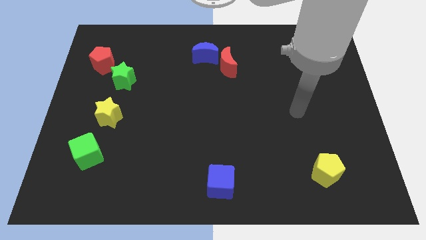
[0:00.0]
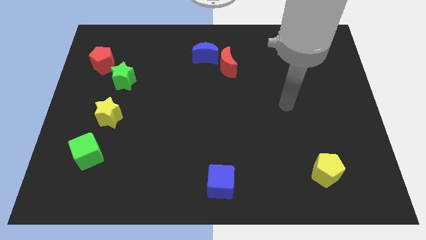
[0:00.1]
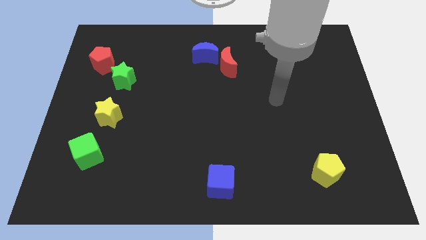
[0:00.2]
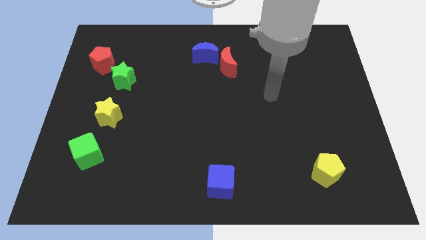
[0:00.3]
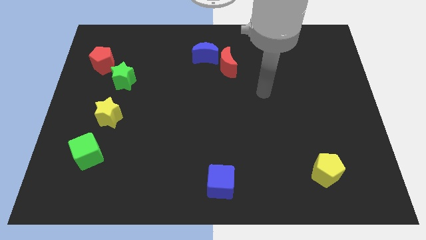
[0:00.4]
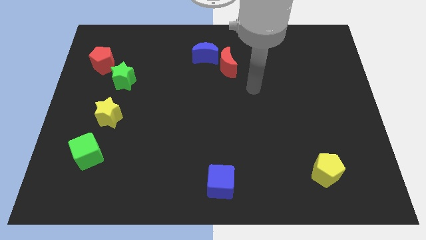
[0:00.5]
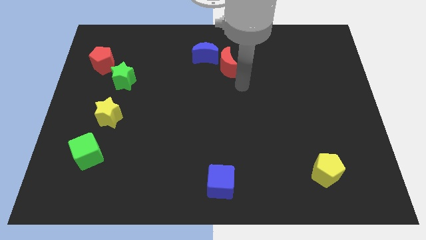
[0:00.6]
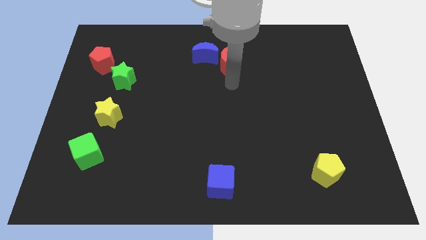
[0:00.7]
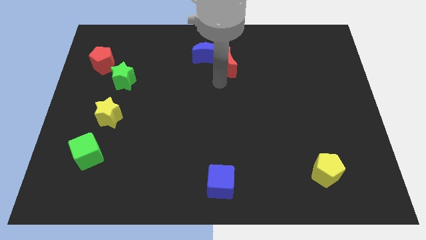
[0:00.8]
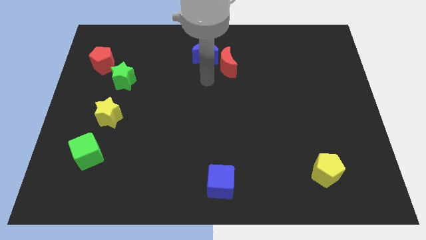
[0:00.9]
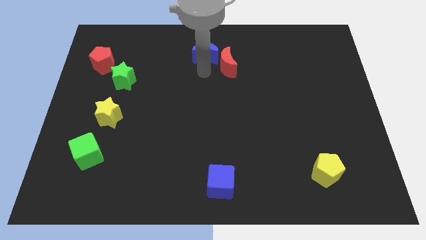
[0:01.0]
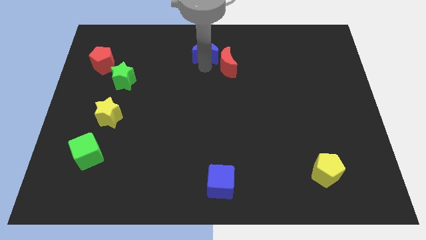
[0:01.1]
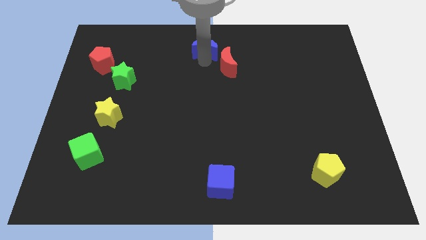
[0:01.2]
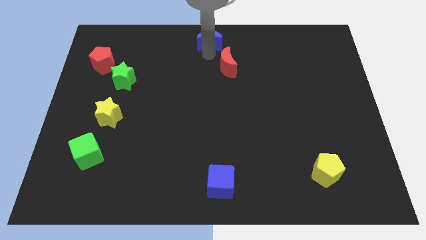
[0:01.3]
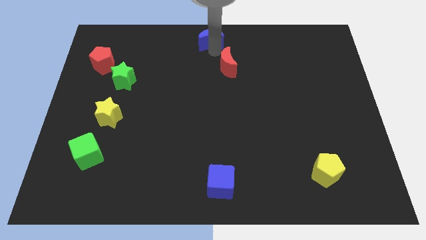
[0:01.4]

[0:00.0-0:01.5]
pull the red moon apart from the blue moon

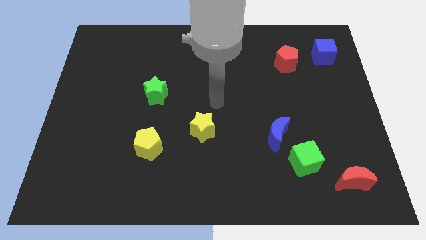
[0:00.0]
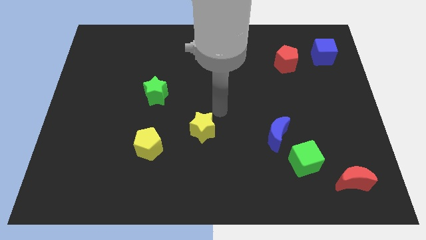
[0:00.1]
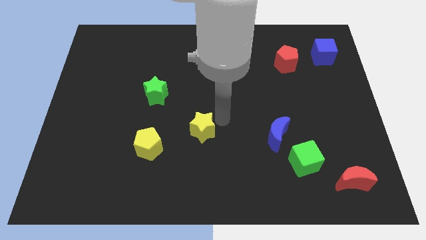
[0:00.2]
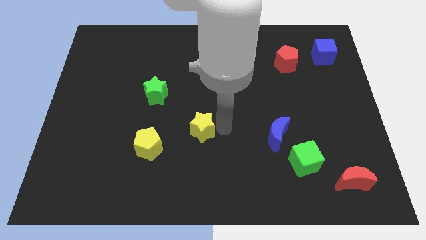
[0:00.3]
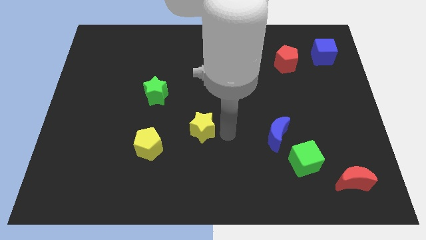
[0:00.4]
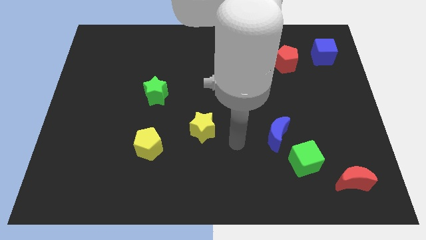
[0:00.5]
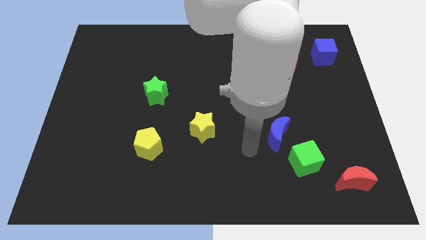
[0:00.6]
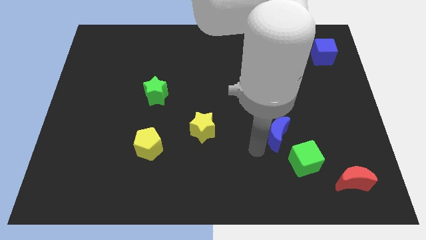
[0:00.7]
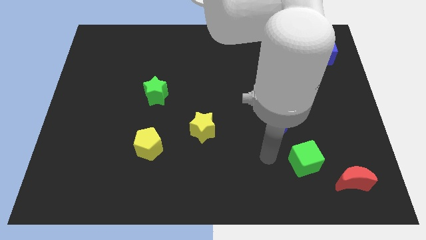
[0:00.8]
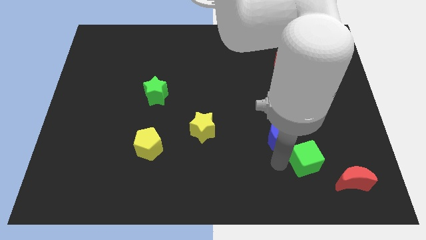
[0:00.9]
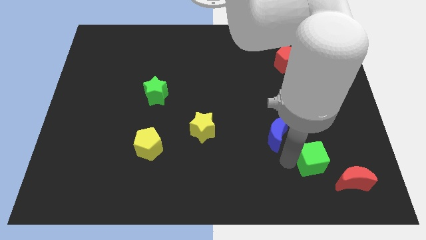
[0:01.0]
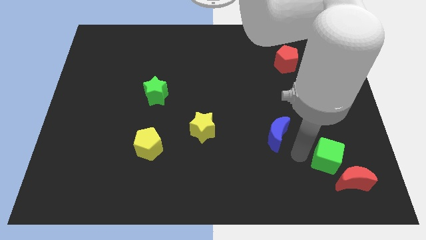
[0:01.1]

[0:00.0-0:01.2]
move the blue moon away from the green cube

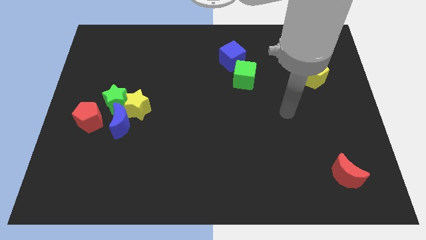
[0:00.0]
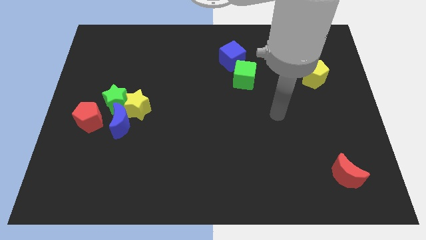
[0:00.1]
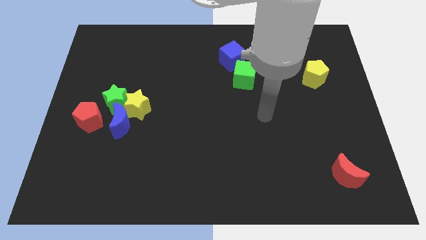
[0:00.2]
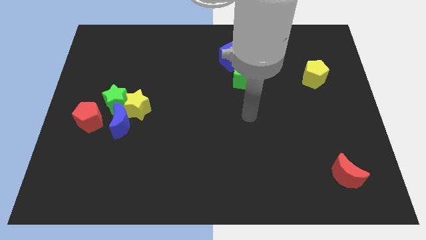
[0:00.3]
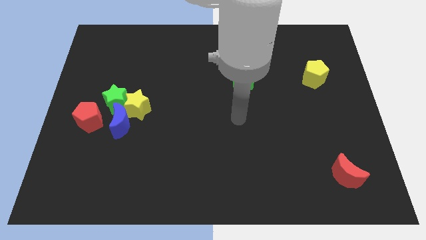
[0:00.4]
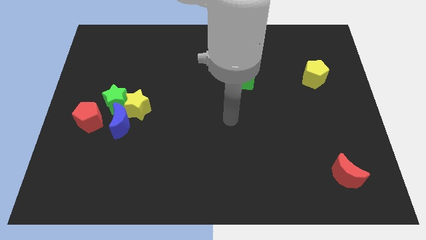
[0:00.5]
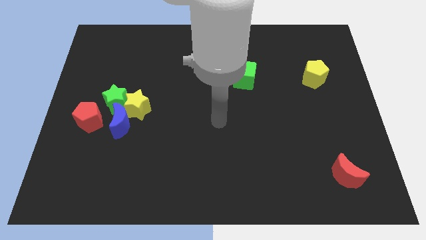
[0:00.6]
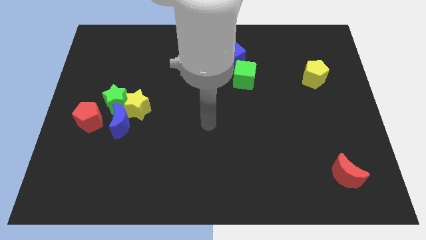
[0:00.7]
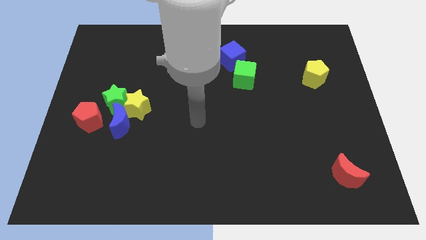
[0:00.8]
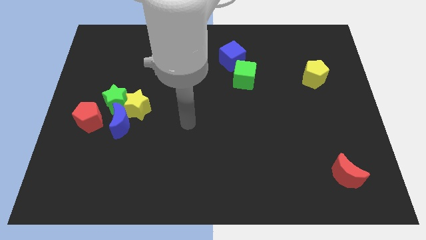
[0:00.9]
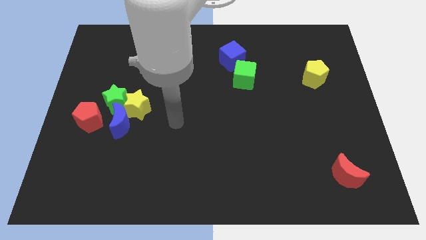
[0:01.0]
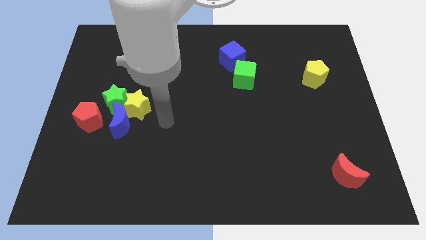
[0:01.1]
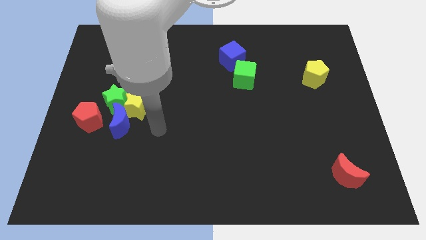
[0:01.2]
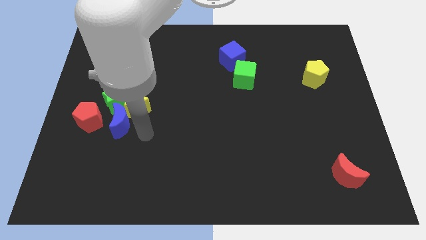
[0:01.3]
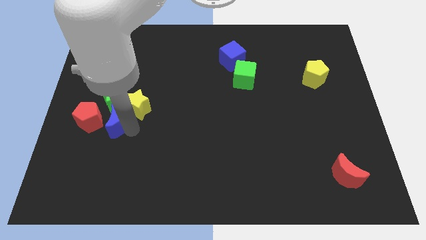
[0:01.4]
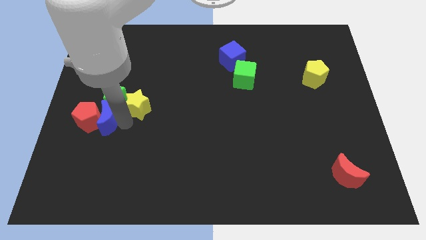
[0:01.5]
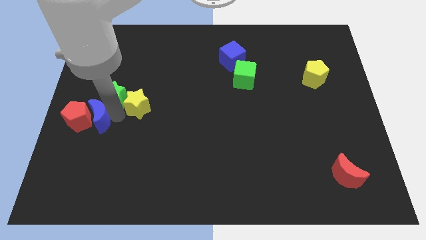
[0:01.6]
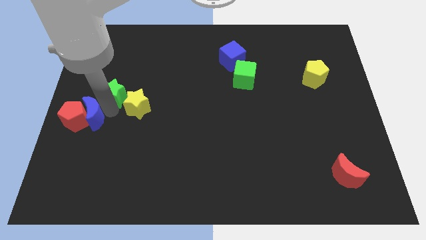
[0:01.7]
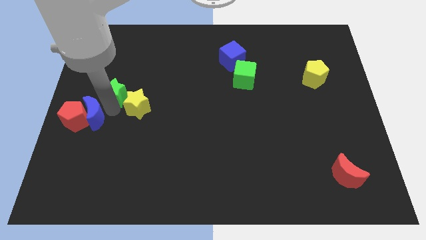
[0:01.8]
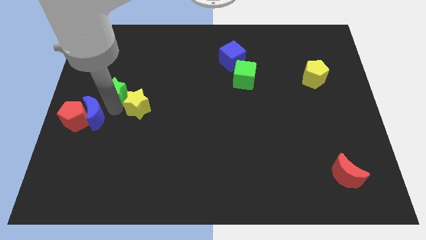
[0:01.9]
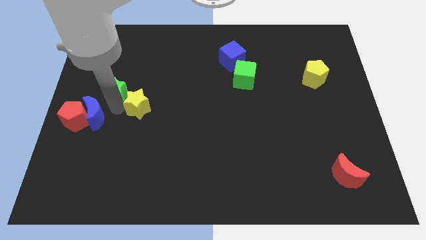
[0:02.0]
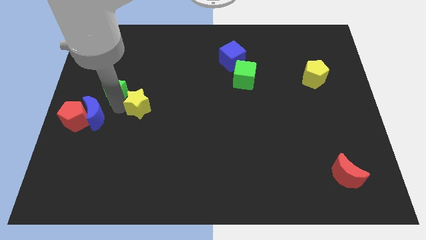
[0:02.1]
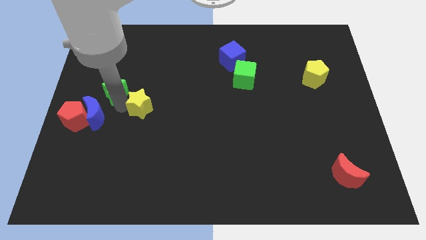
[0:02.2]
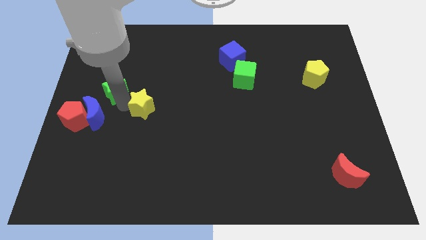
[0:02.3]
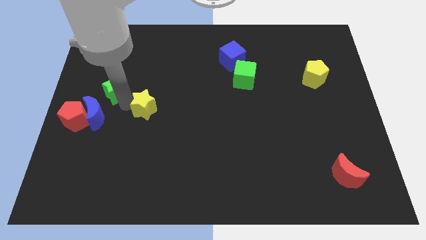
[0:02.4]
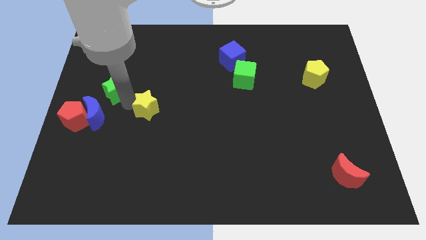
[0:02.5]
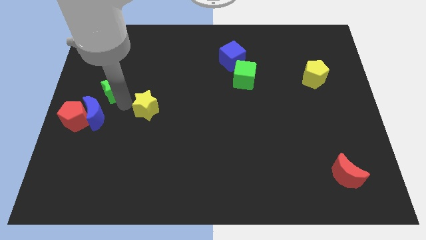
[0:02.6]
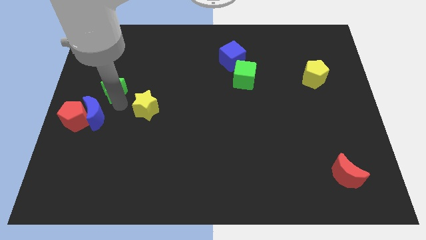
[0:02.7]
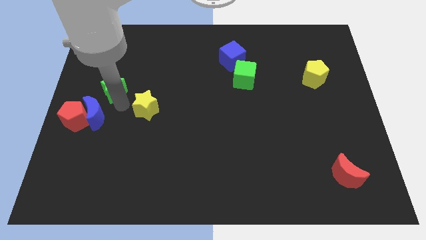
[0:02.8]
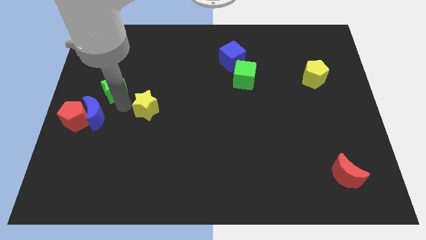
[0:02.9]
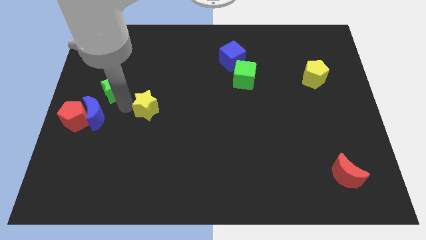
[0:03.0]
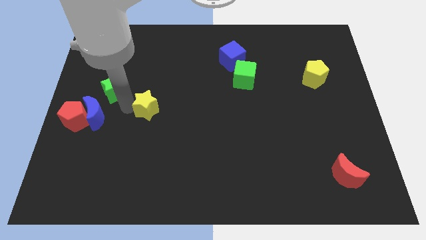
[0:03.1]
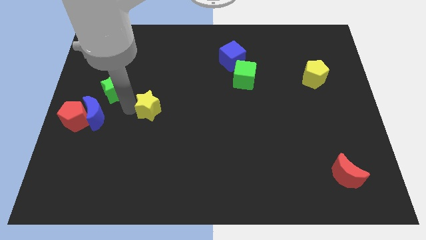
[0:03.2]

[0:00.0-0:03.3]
move the yellow star away from the green star and blue moon

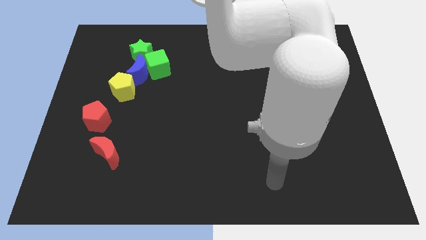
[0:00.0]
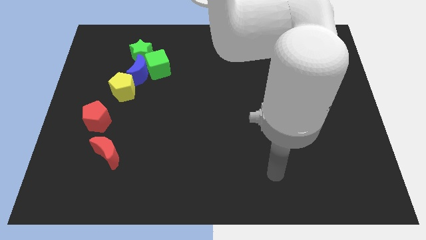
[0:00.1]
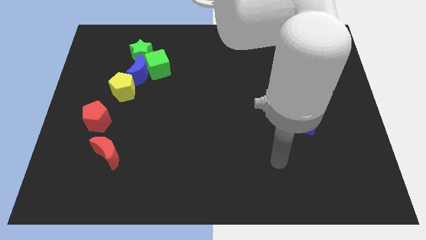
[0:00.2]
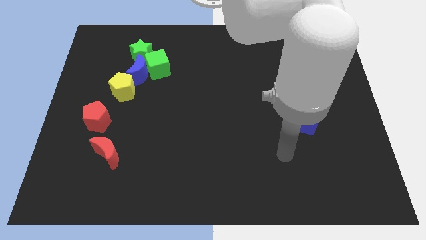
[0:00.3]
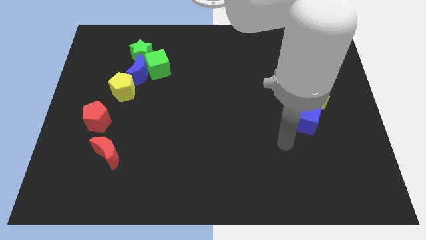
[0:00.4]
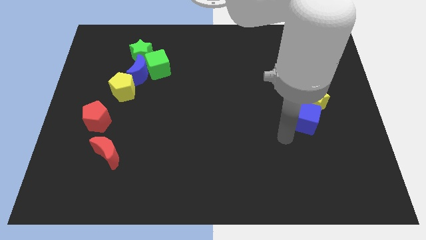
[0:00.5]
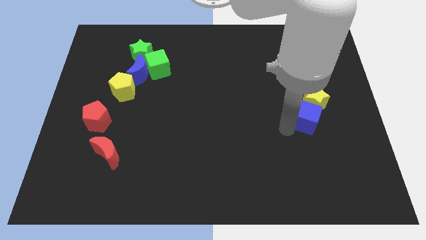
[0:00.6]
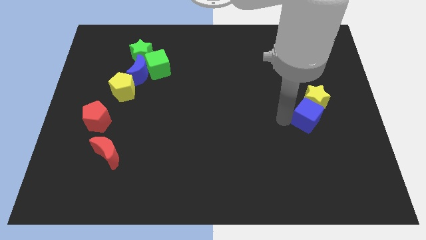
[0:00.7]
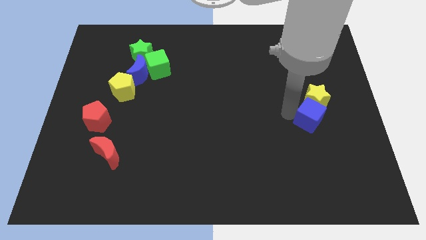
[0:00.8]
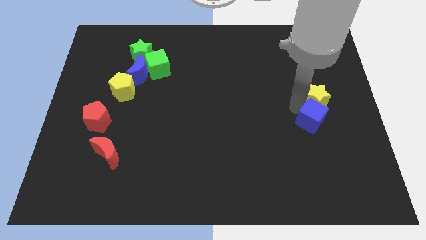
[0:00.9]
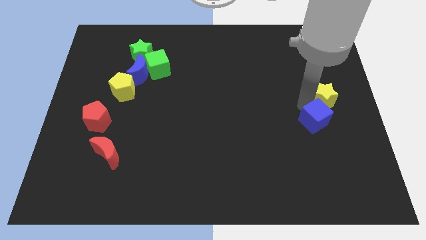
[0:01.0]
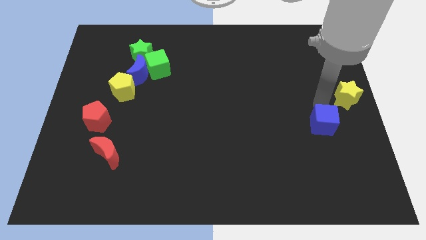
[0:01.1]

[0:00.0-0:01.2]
pull the blue cube apart from the yellow star

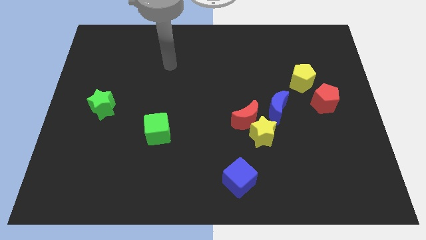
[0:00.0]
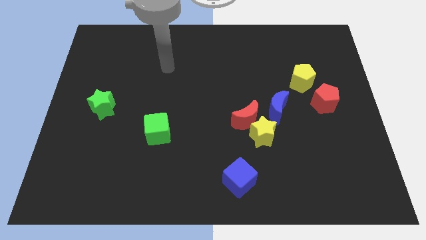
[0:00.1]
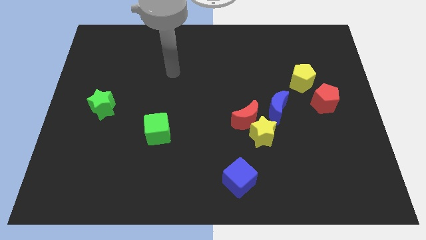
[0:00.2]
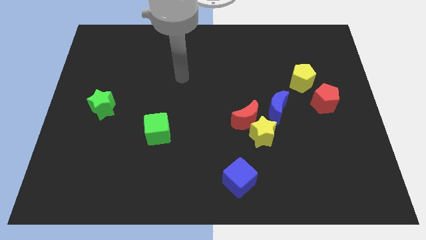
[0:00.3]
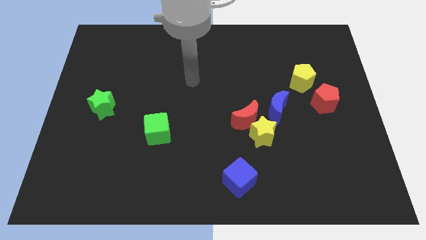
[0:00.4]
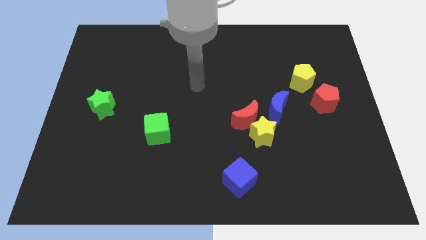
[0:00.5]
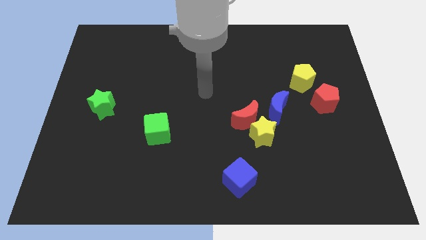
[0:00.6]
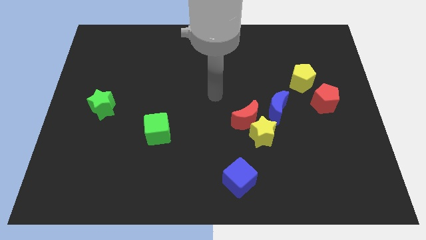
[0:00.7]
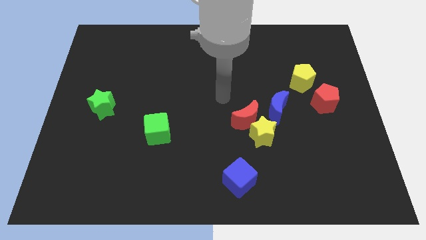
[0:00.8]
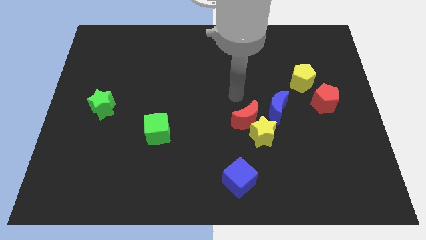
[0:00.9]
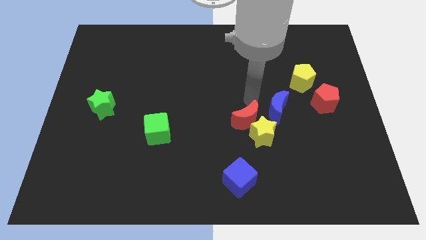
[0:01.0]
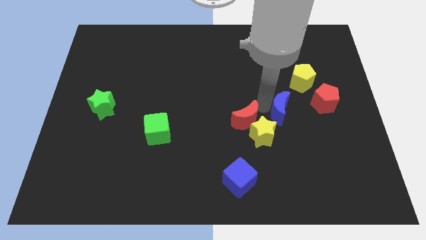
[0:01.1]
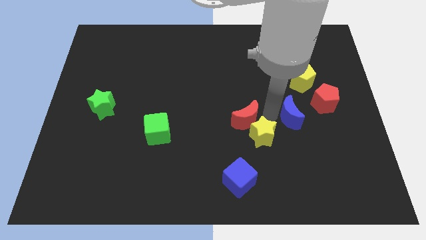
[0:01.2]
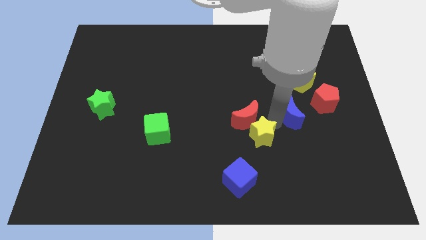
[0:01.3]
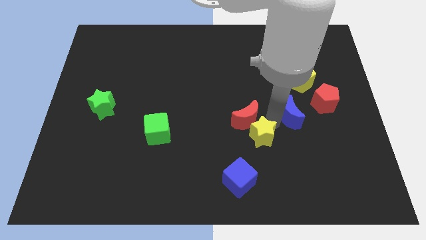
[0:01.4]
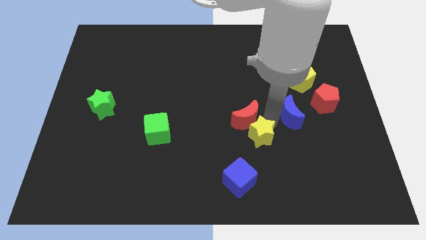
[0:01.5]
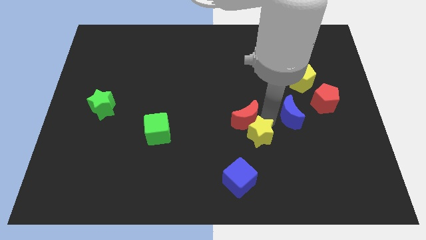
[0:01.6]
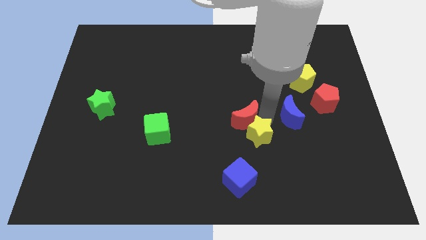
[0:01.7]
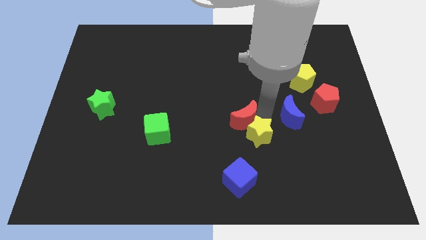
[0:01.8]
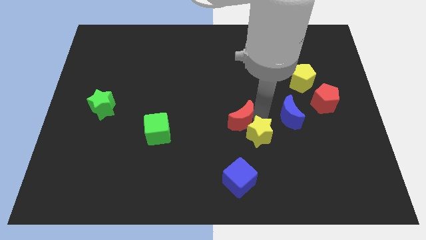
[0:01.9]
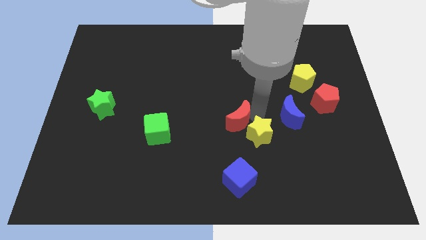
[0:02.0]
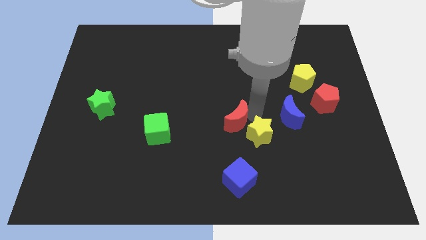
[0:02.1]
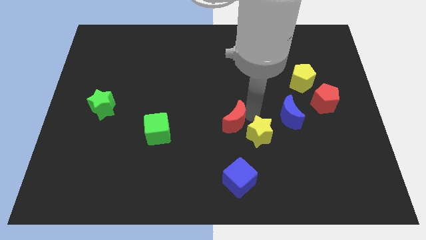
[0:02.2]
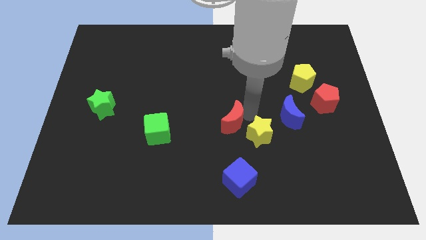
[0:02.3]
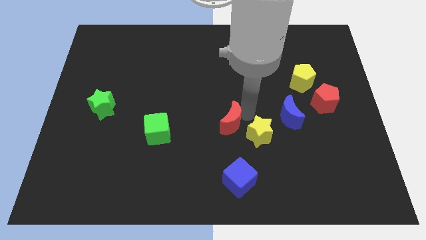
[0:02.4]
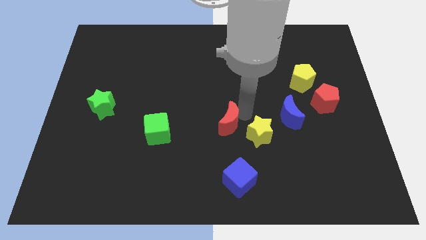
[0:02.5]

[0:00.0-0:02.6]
move the red moon away from the yellow star and blue moon
